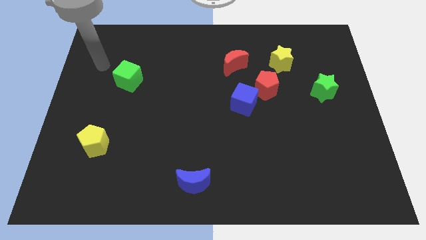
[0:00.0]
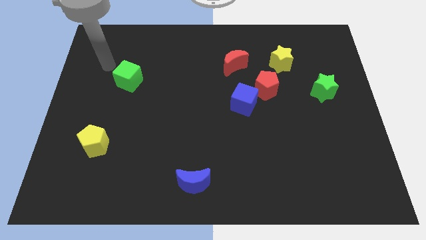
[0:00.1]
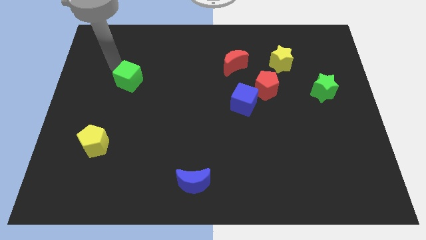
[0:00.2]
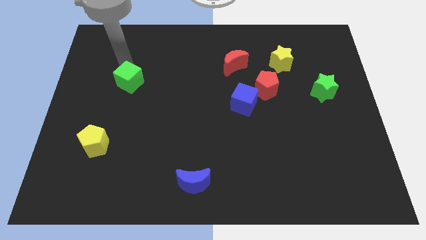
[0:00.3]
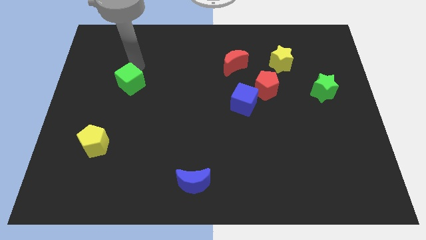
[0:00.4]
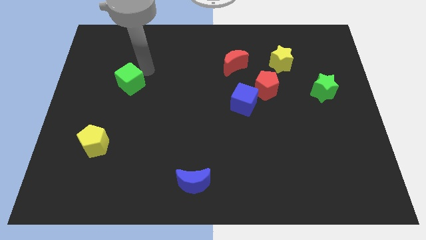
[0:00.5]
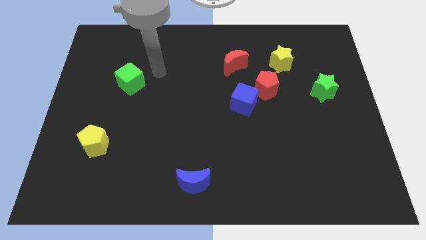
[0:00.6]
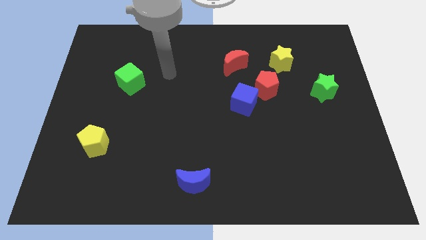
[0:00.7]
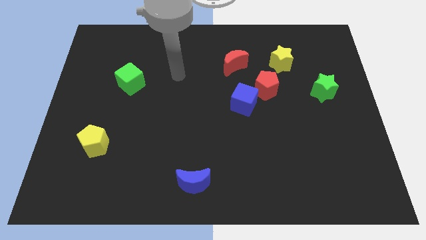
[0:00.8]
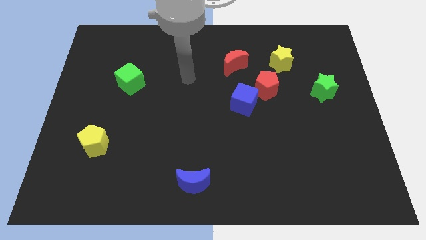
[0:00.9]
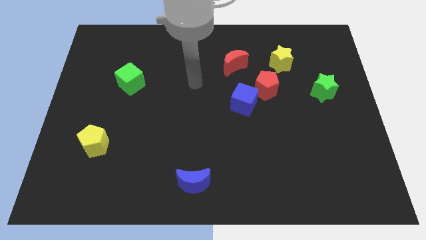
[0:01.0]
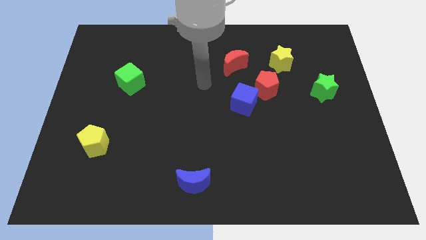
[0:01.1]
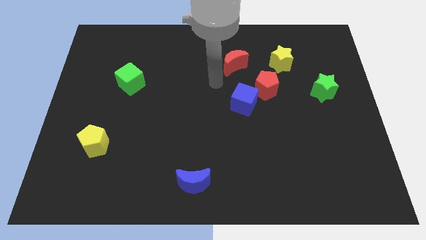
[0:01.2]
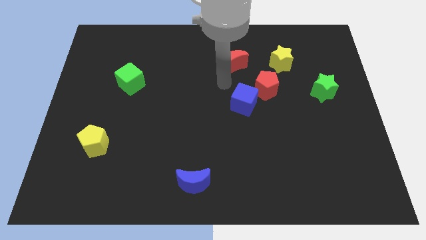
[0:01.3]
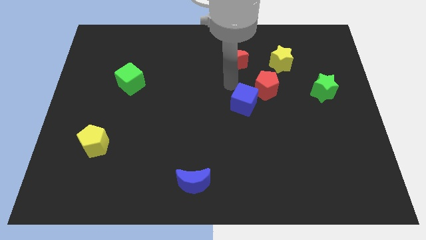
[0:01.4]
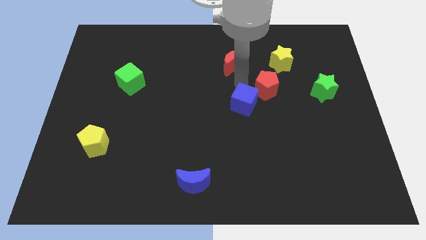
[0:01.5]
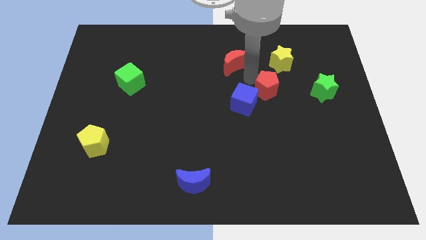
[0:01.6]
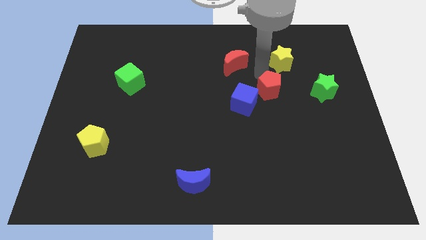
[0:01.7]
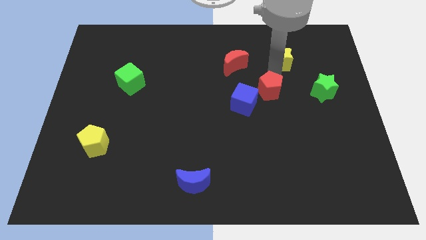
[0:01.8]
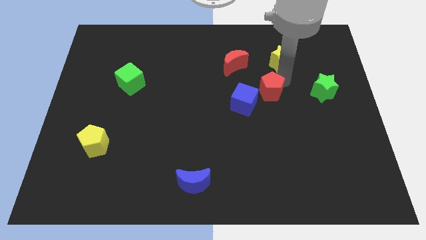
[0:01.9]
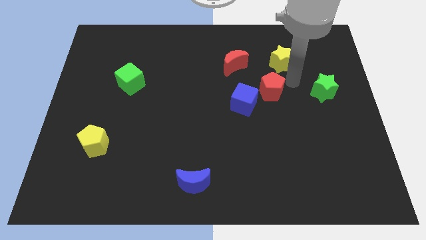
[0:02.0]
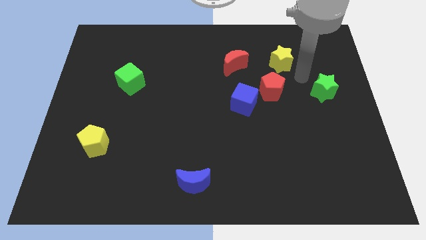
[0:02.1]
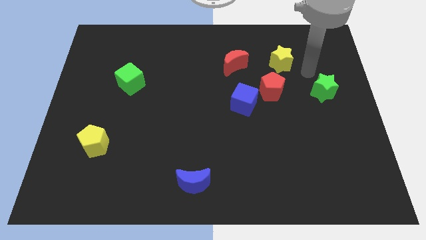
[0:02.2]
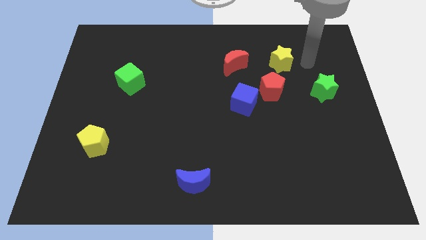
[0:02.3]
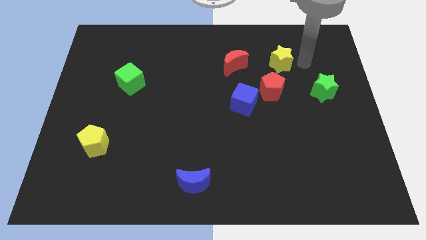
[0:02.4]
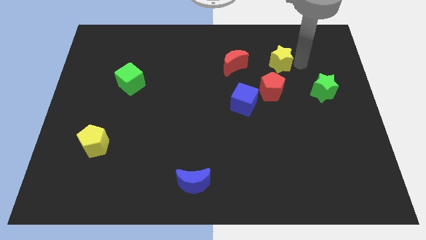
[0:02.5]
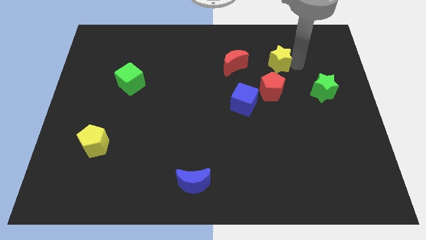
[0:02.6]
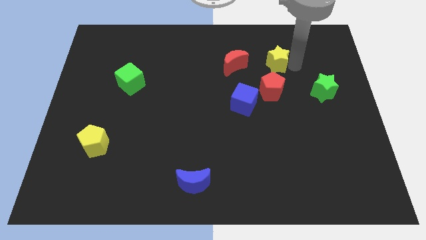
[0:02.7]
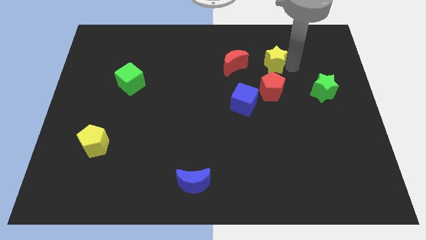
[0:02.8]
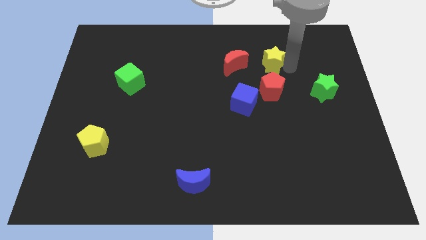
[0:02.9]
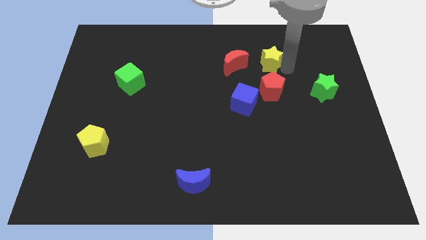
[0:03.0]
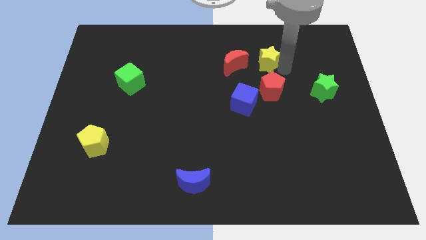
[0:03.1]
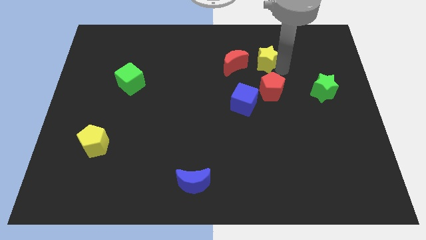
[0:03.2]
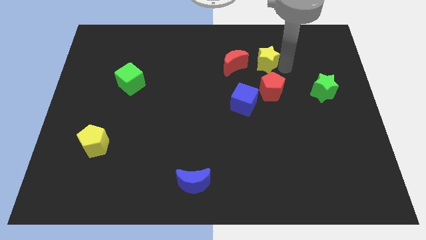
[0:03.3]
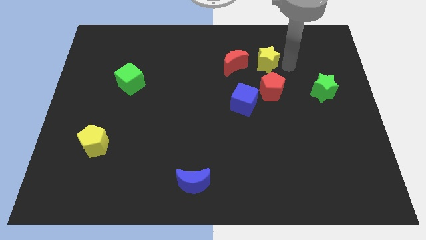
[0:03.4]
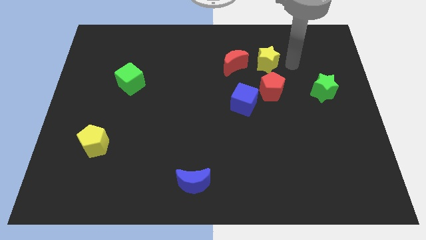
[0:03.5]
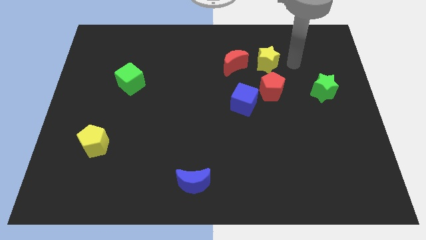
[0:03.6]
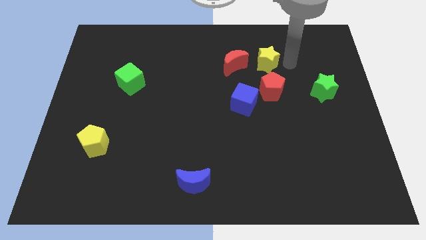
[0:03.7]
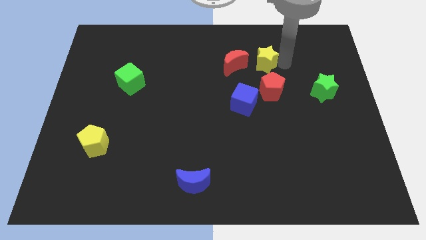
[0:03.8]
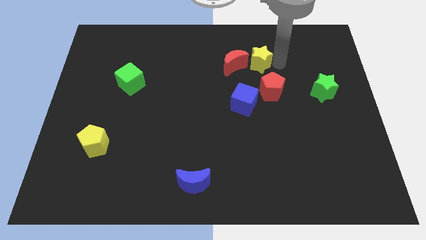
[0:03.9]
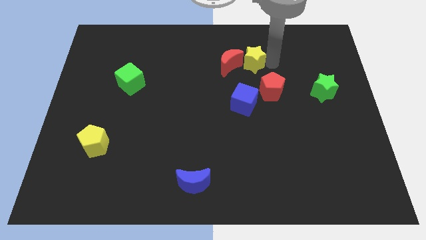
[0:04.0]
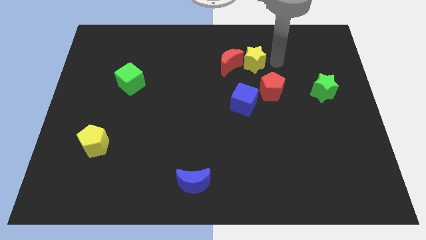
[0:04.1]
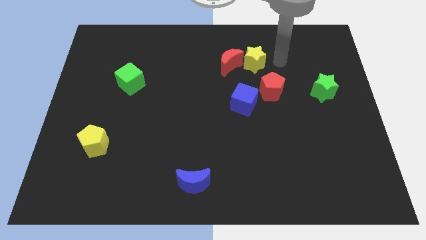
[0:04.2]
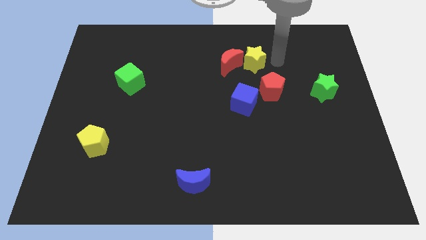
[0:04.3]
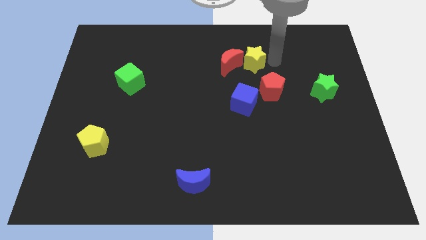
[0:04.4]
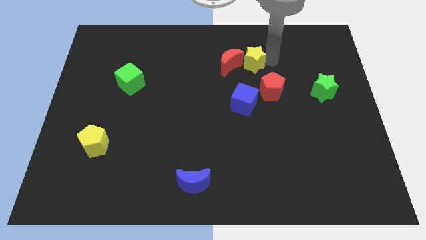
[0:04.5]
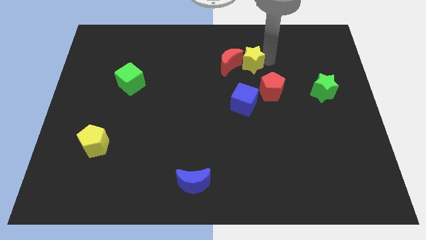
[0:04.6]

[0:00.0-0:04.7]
put the yellow star towards the red moon

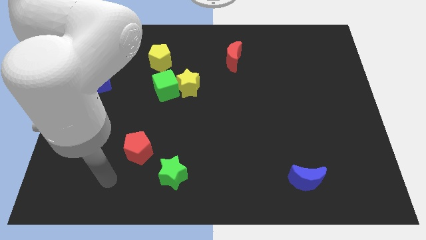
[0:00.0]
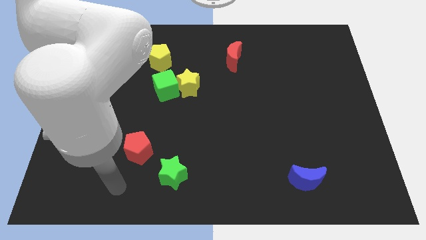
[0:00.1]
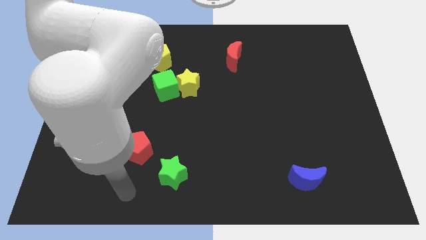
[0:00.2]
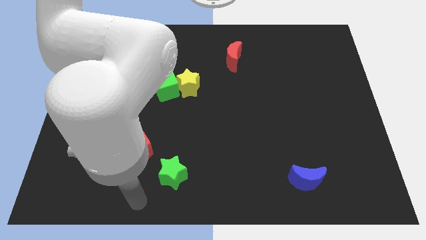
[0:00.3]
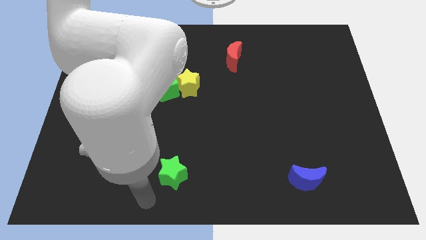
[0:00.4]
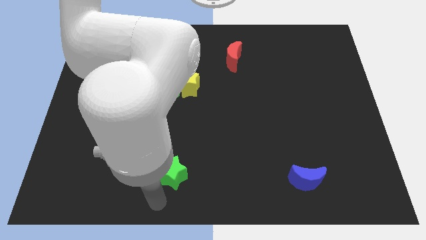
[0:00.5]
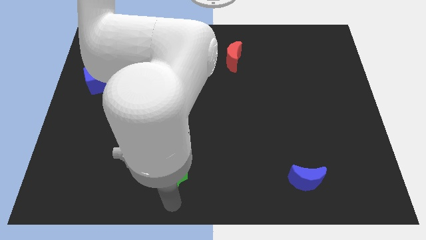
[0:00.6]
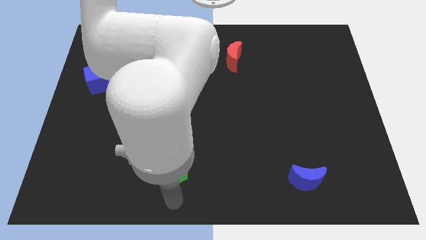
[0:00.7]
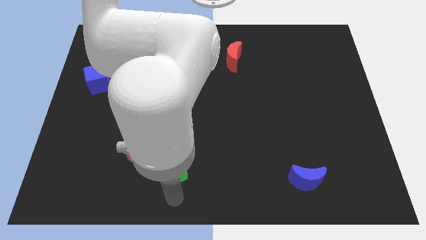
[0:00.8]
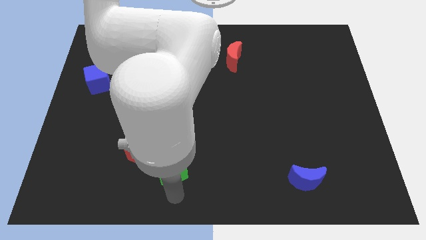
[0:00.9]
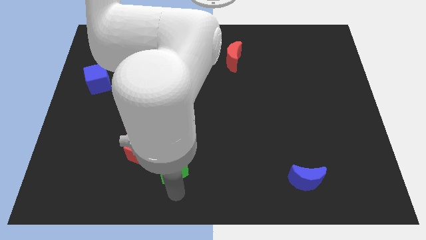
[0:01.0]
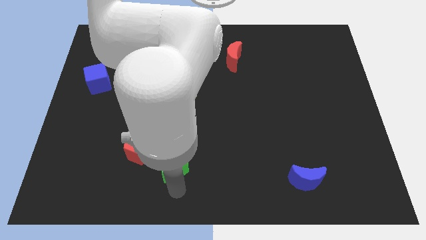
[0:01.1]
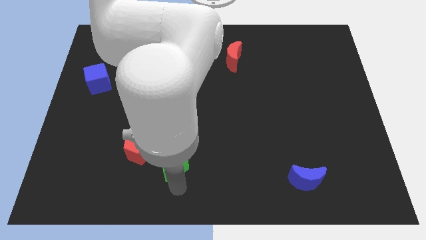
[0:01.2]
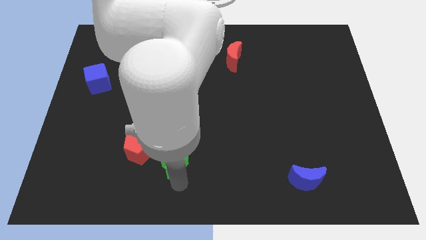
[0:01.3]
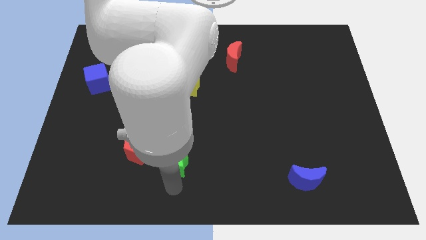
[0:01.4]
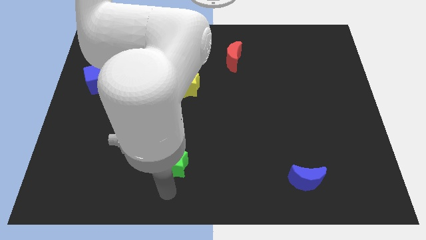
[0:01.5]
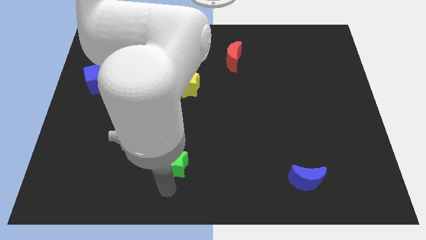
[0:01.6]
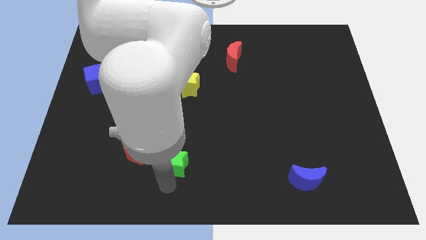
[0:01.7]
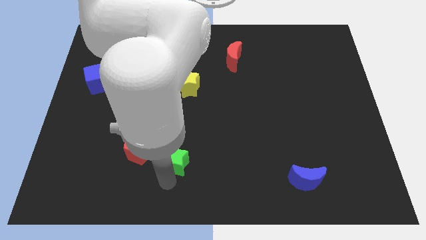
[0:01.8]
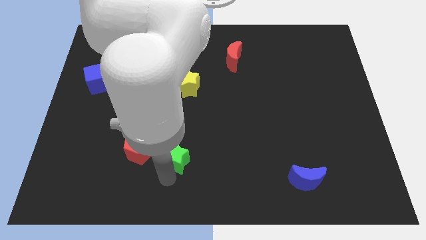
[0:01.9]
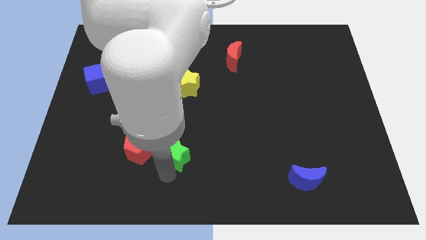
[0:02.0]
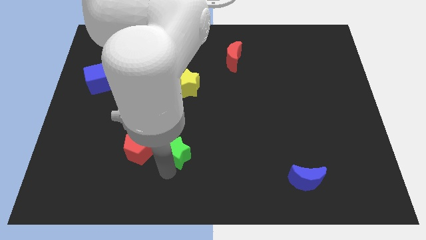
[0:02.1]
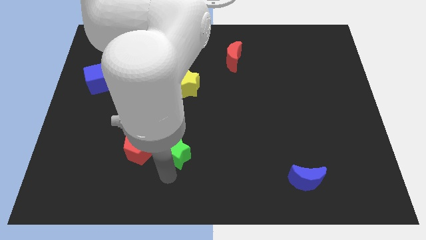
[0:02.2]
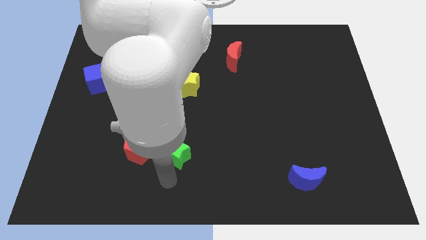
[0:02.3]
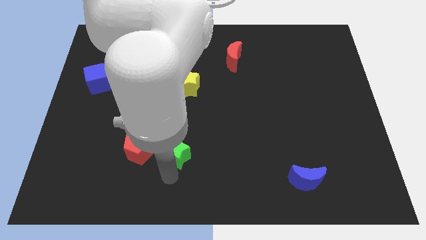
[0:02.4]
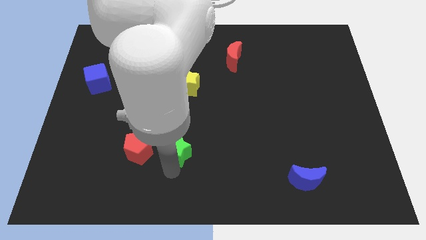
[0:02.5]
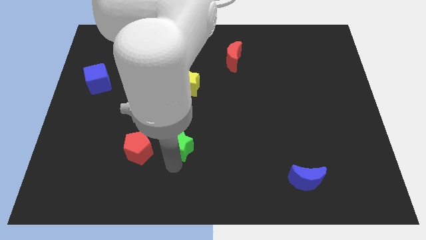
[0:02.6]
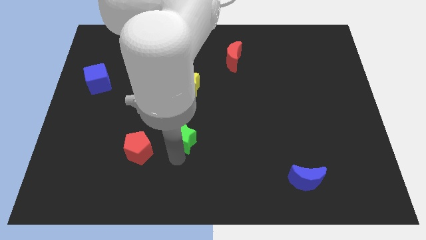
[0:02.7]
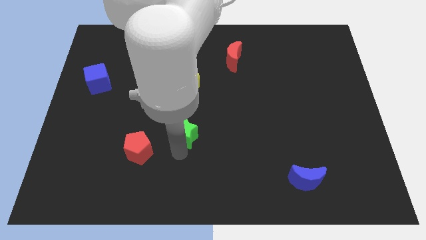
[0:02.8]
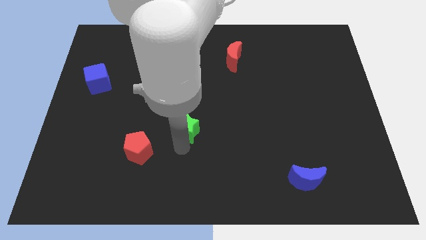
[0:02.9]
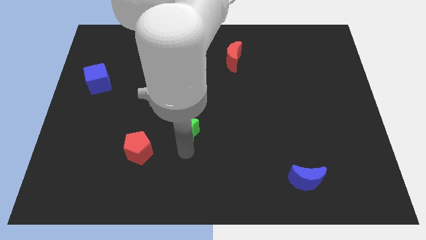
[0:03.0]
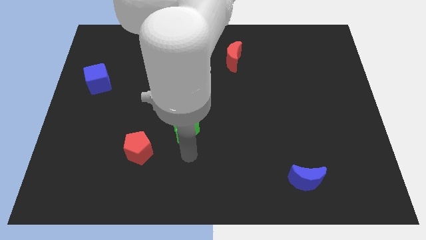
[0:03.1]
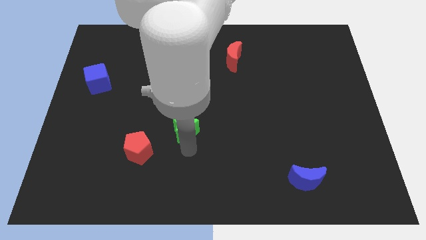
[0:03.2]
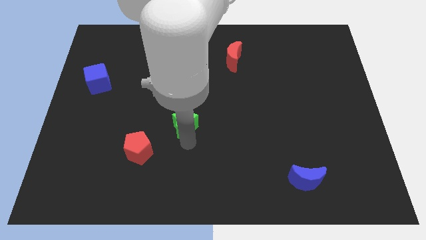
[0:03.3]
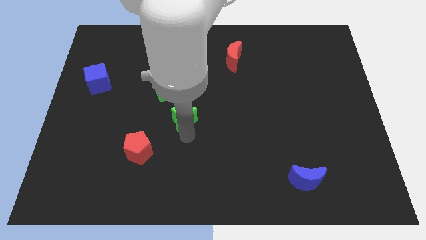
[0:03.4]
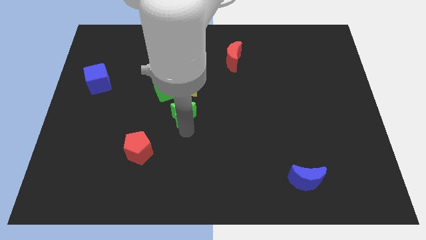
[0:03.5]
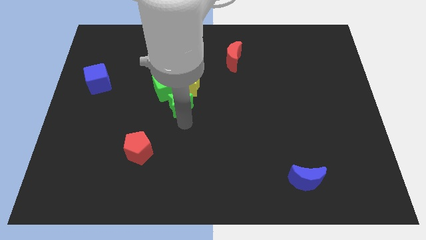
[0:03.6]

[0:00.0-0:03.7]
put the green star towards the yellow star
